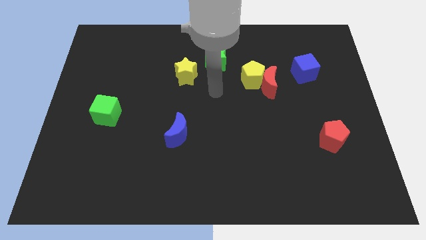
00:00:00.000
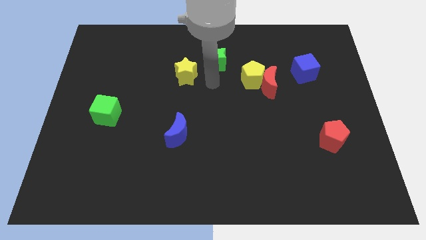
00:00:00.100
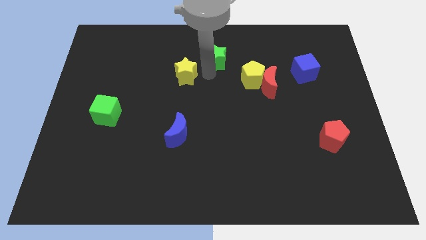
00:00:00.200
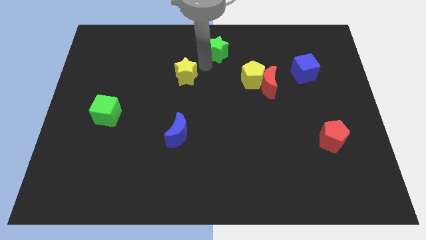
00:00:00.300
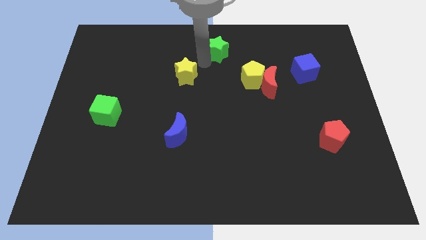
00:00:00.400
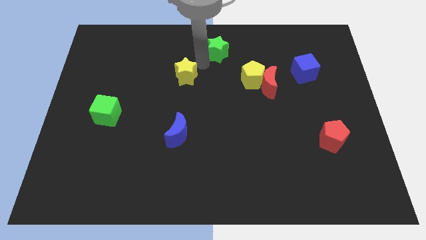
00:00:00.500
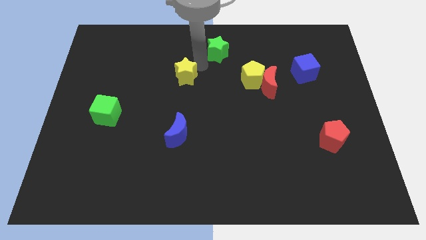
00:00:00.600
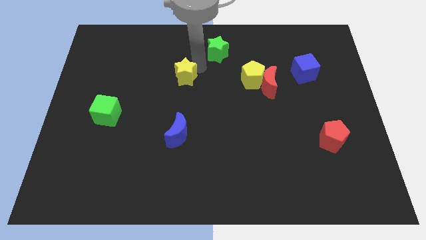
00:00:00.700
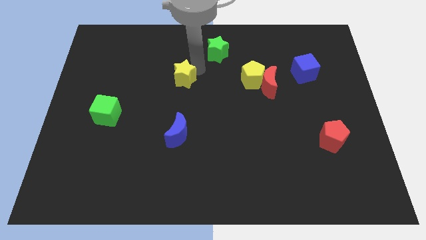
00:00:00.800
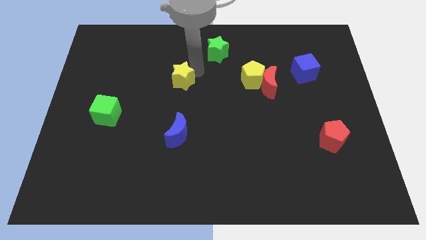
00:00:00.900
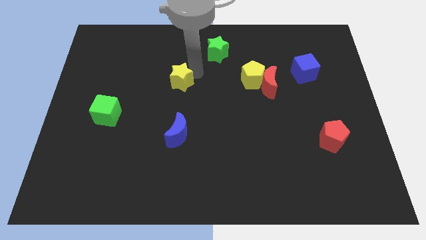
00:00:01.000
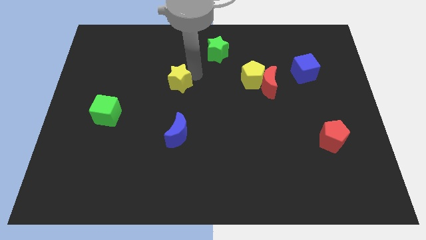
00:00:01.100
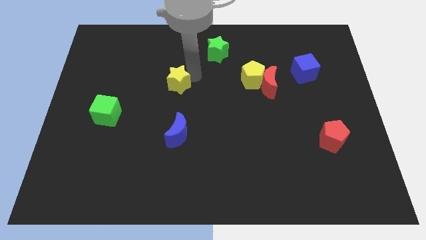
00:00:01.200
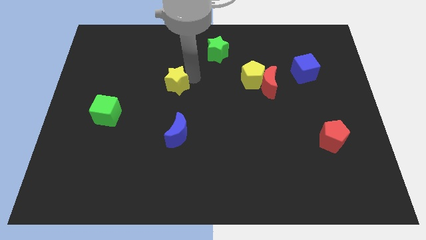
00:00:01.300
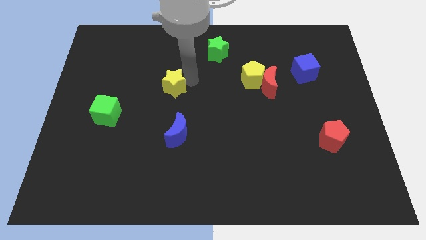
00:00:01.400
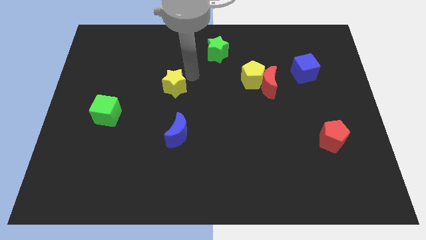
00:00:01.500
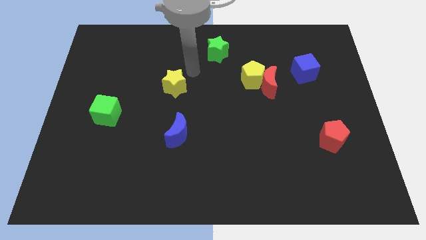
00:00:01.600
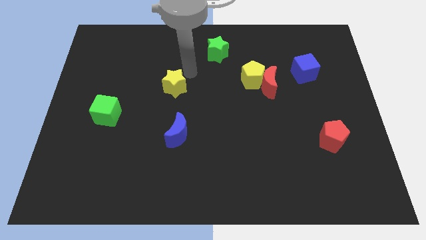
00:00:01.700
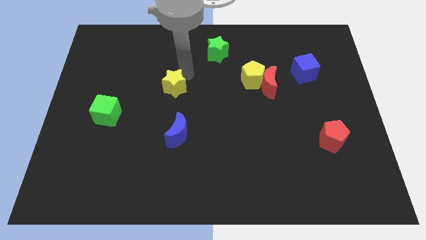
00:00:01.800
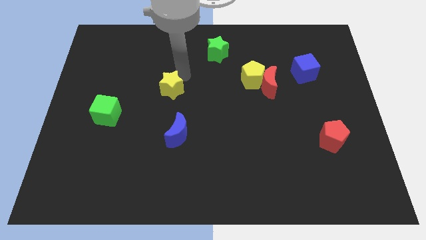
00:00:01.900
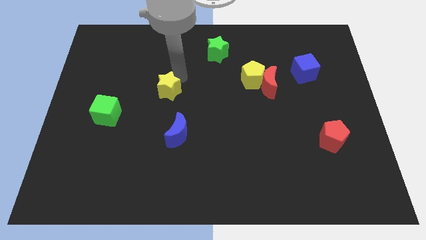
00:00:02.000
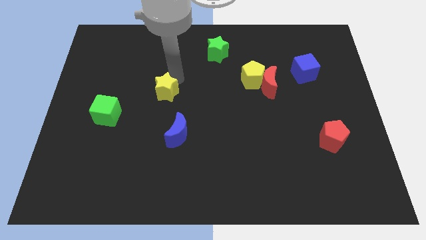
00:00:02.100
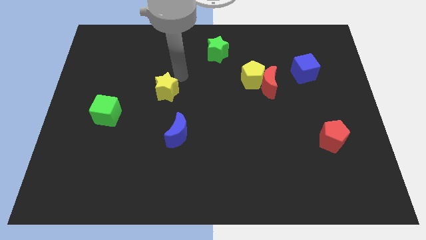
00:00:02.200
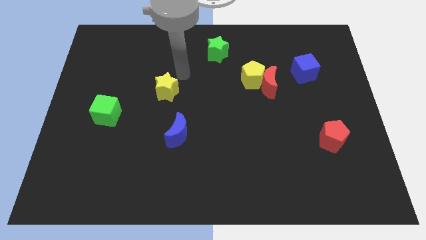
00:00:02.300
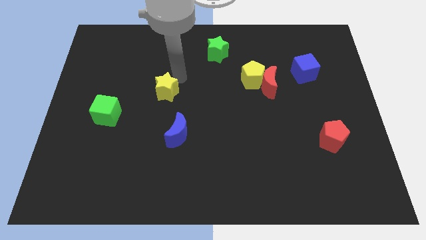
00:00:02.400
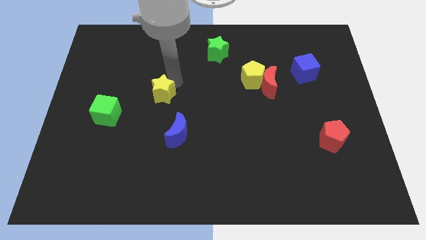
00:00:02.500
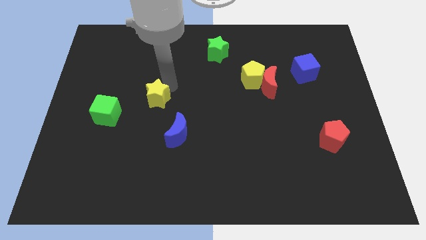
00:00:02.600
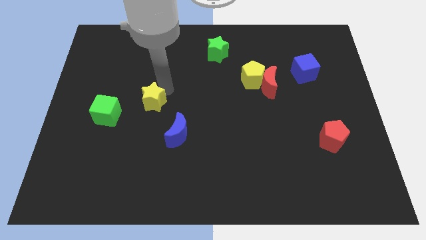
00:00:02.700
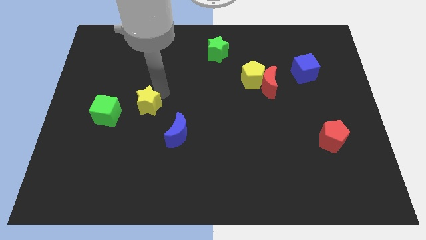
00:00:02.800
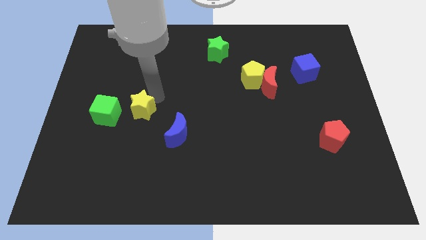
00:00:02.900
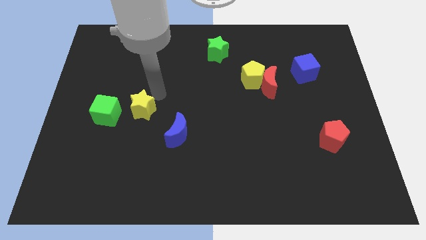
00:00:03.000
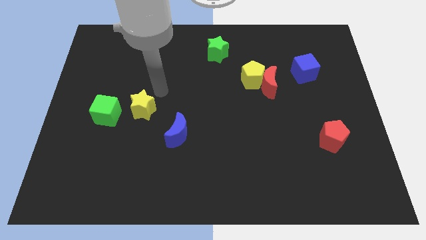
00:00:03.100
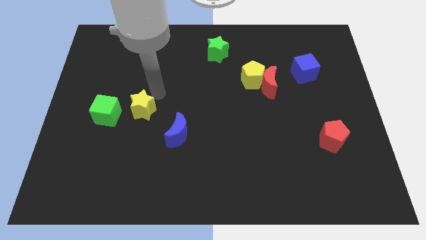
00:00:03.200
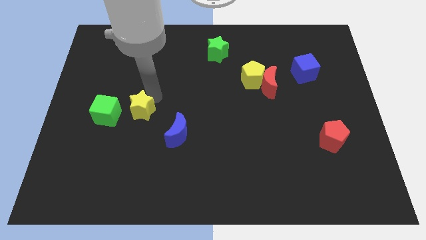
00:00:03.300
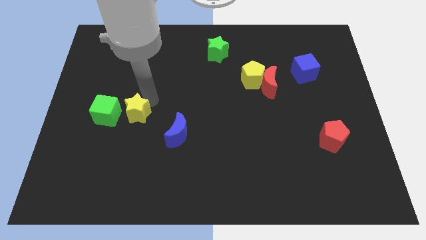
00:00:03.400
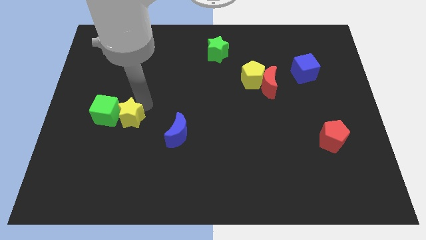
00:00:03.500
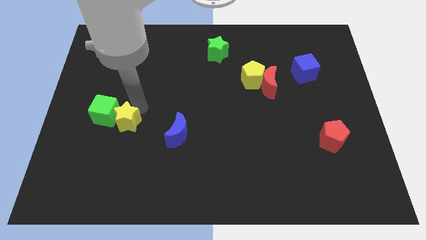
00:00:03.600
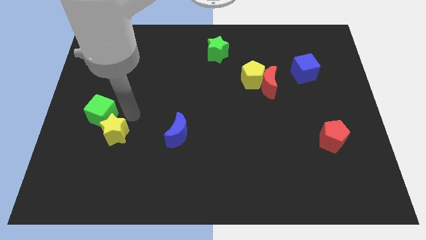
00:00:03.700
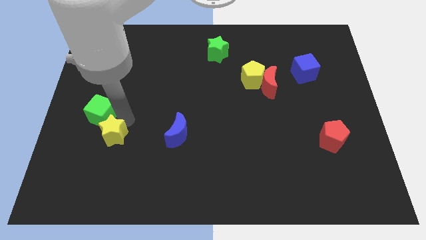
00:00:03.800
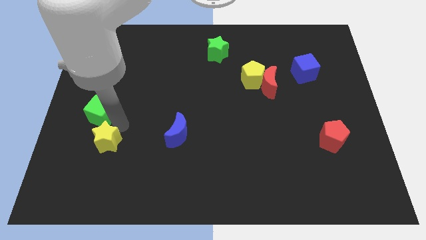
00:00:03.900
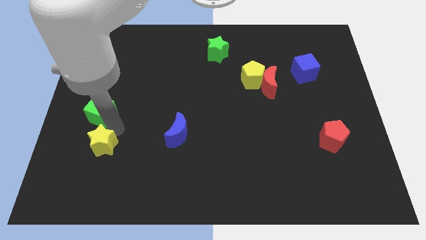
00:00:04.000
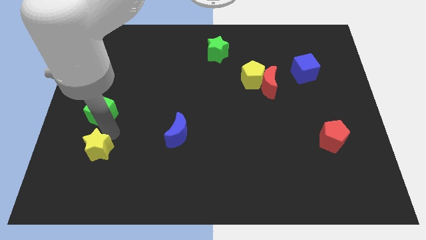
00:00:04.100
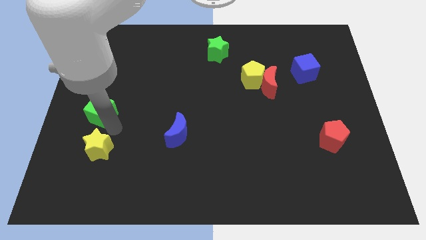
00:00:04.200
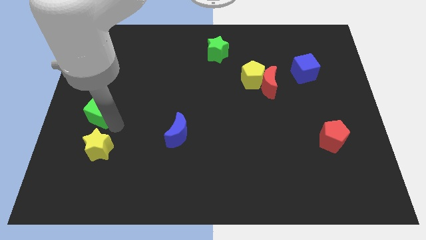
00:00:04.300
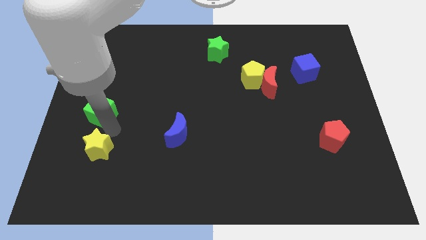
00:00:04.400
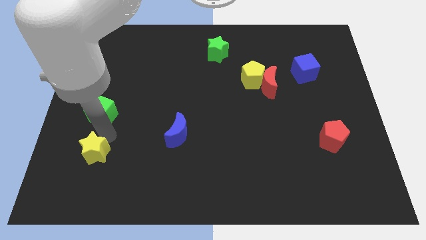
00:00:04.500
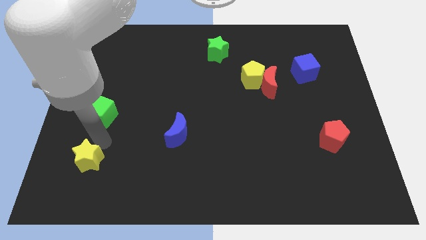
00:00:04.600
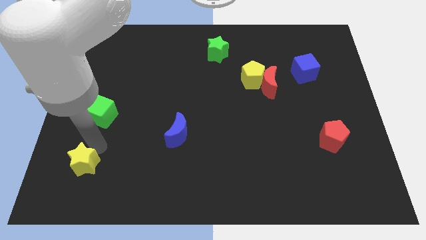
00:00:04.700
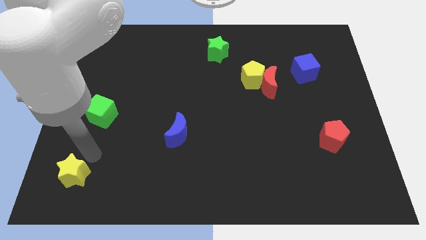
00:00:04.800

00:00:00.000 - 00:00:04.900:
move the yellow star to the bottom left

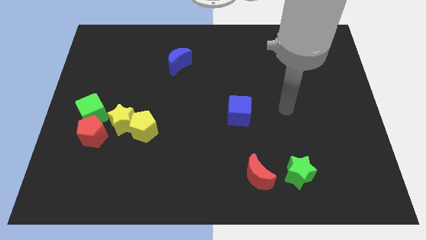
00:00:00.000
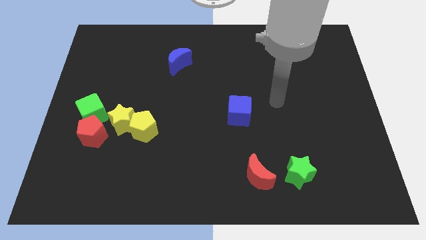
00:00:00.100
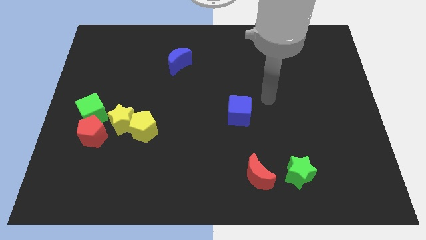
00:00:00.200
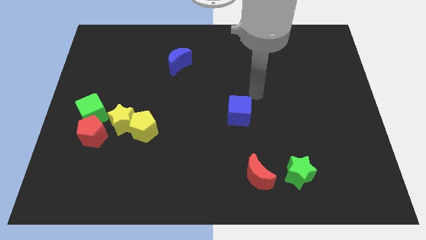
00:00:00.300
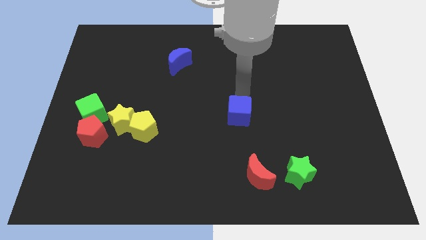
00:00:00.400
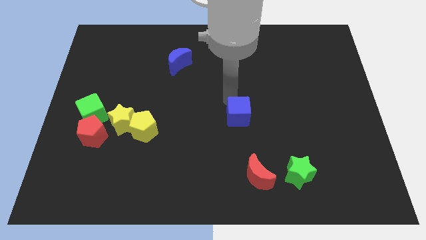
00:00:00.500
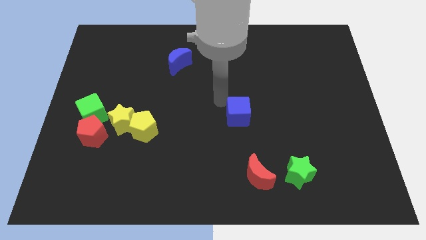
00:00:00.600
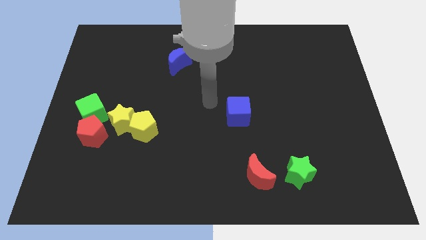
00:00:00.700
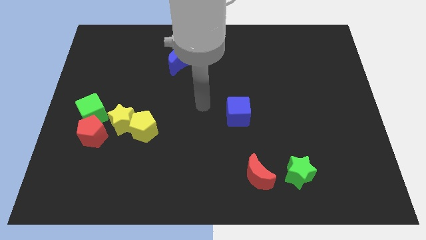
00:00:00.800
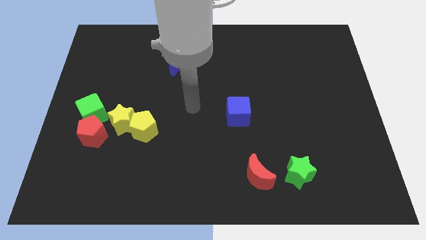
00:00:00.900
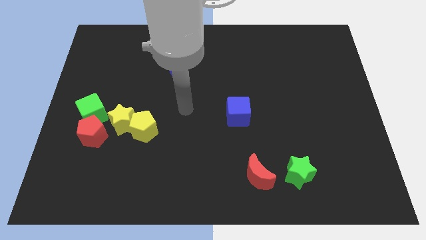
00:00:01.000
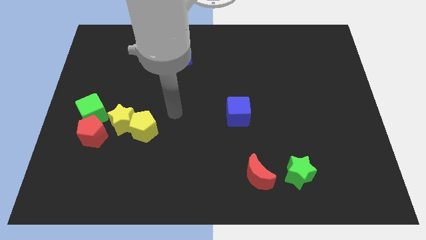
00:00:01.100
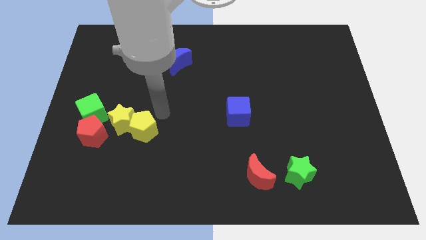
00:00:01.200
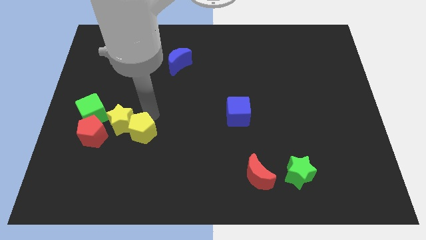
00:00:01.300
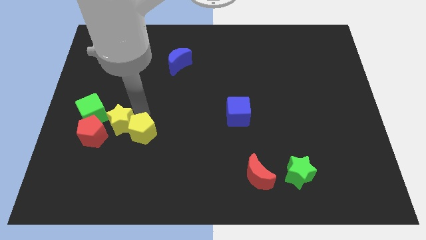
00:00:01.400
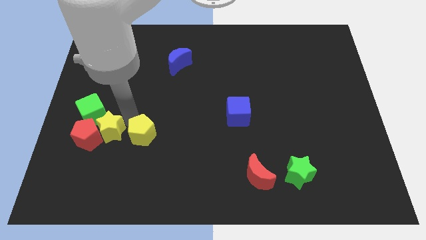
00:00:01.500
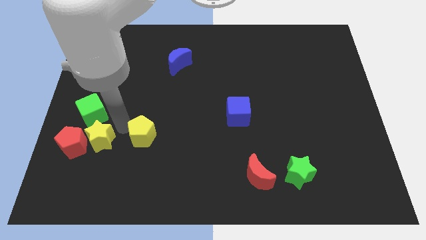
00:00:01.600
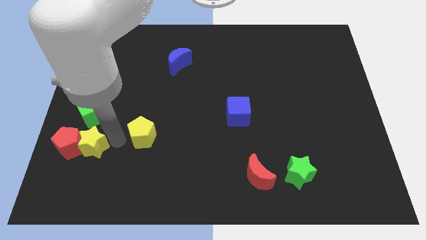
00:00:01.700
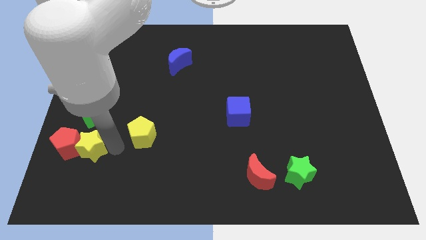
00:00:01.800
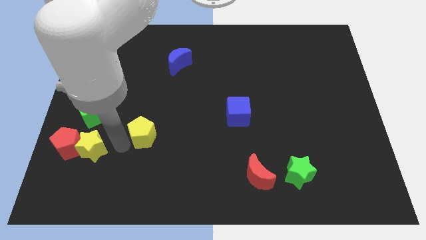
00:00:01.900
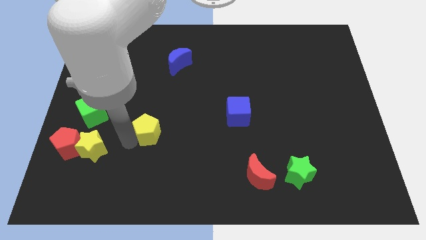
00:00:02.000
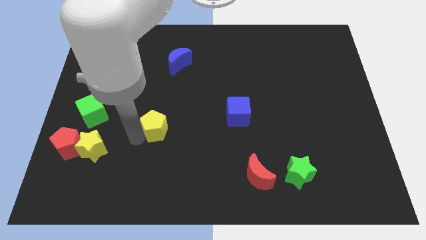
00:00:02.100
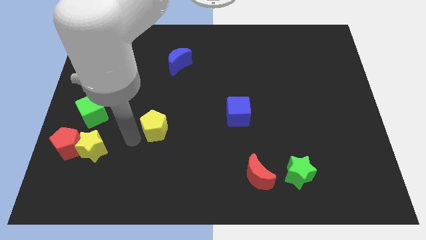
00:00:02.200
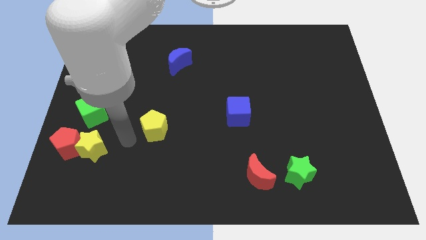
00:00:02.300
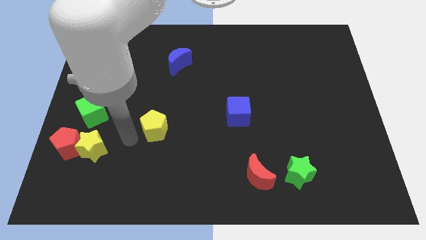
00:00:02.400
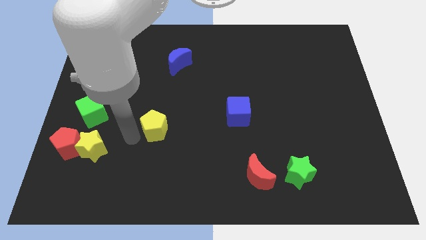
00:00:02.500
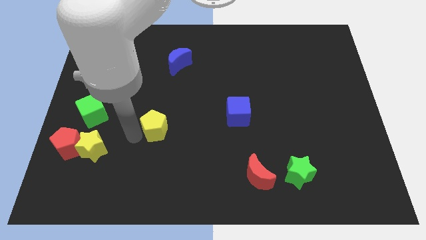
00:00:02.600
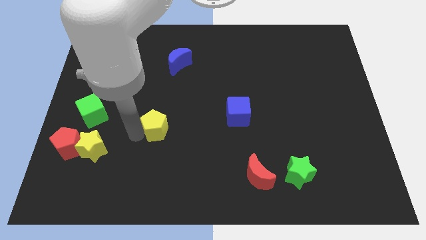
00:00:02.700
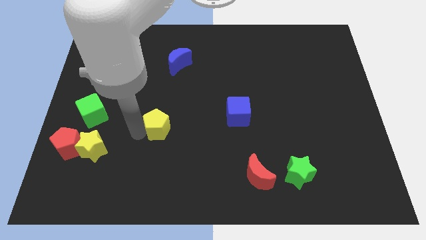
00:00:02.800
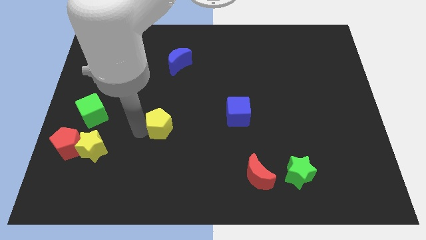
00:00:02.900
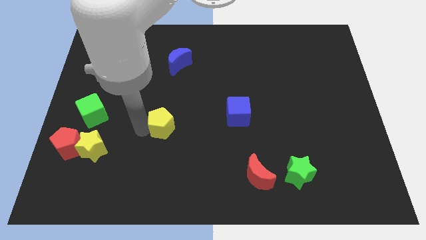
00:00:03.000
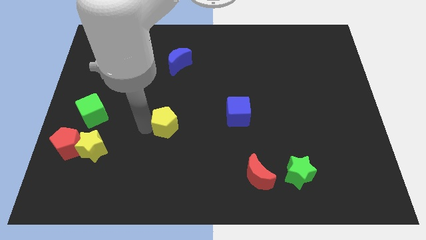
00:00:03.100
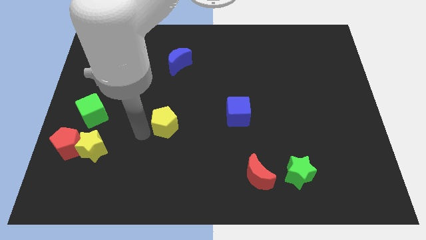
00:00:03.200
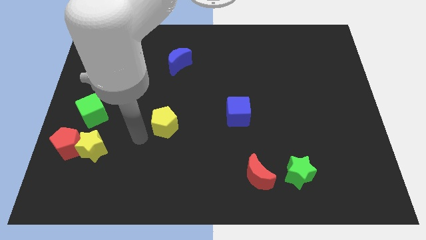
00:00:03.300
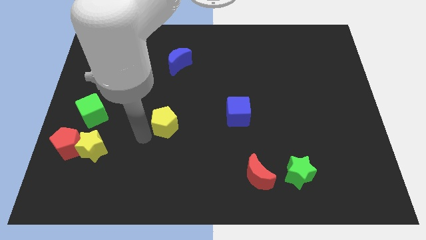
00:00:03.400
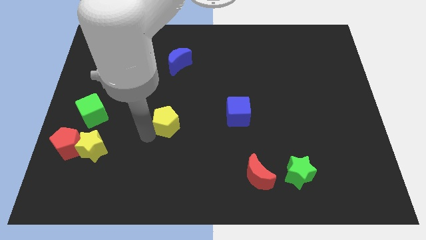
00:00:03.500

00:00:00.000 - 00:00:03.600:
move the yellow pentagon to the center

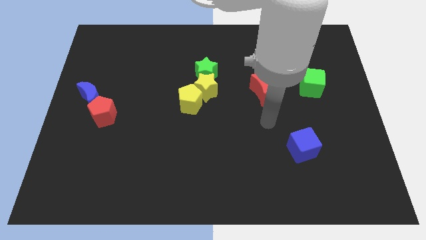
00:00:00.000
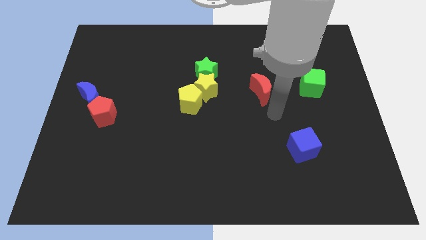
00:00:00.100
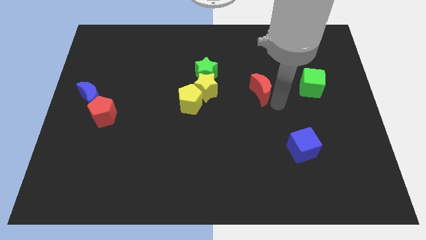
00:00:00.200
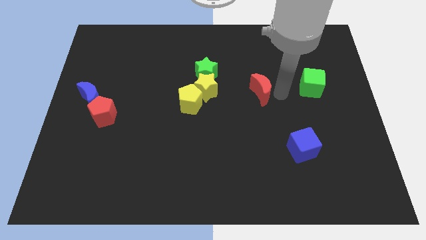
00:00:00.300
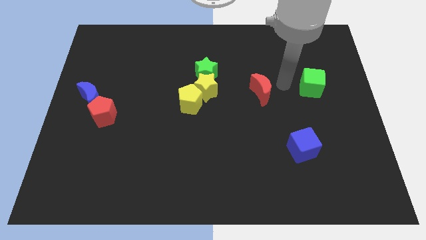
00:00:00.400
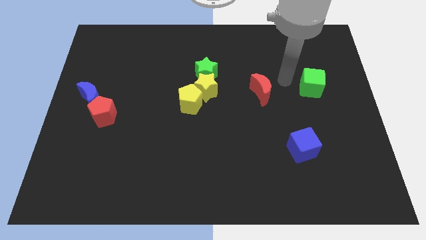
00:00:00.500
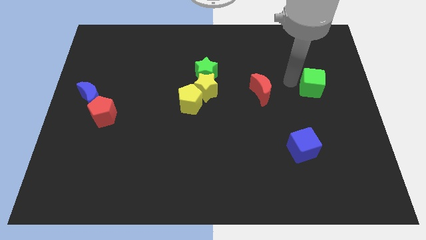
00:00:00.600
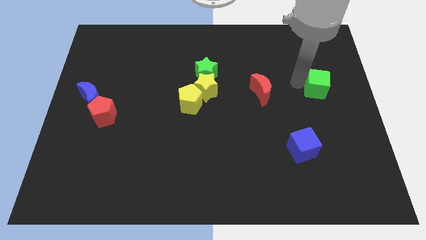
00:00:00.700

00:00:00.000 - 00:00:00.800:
put the green cube to the right side
